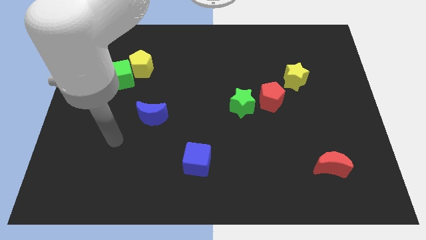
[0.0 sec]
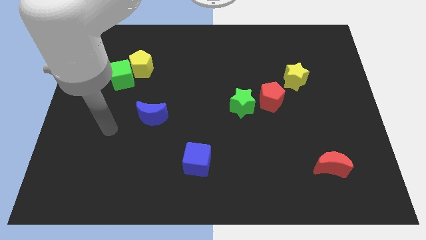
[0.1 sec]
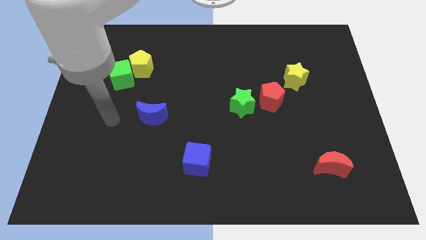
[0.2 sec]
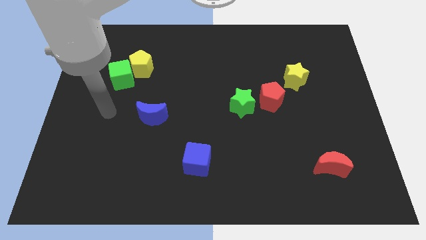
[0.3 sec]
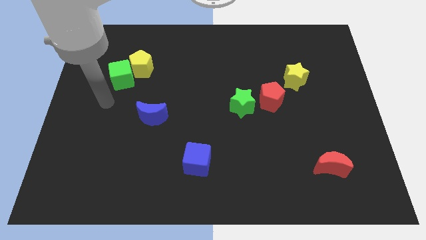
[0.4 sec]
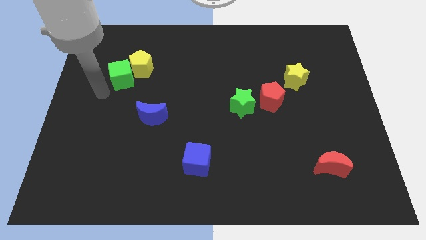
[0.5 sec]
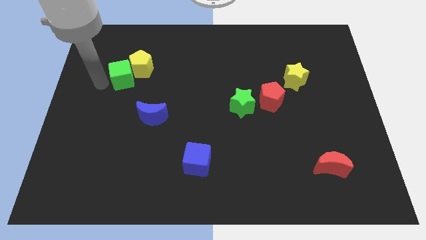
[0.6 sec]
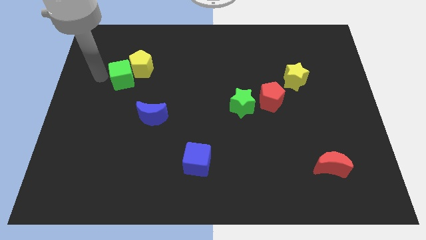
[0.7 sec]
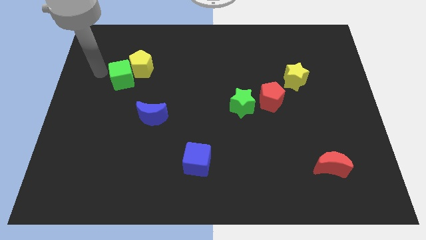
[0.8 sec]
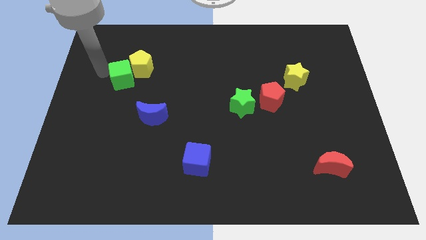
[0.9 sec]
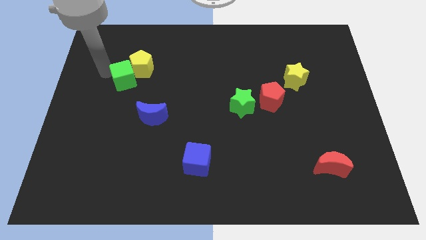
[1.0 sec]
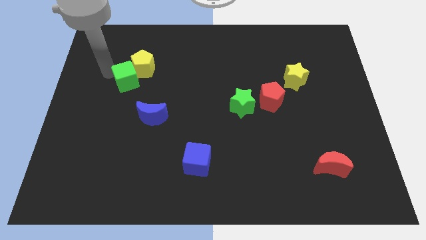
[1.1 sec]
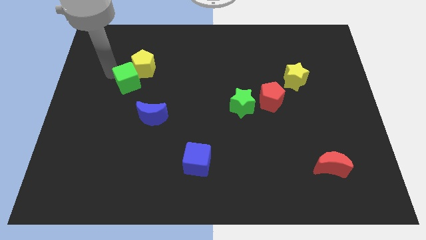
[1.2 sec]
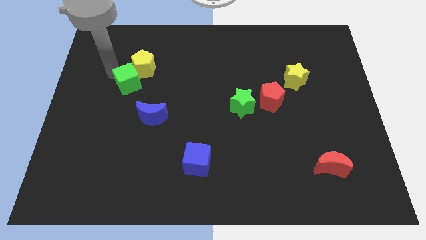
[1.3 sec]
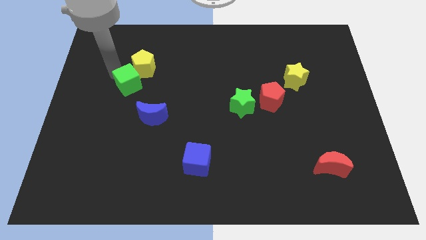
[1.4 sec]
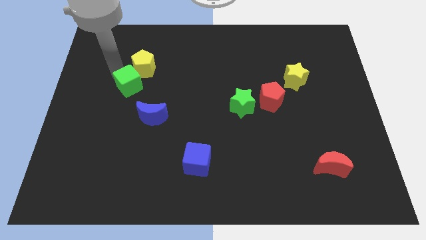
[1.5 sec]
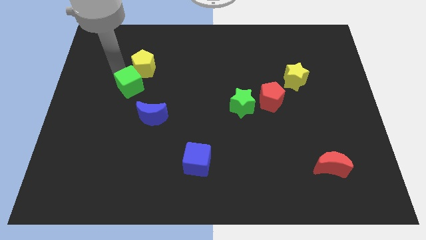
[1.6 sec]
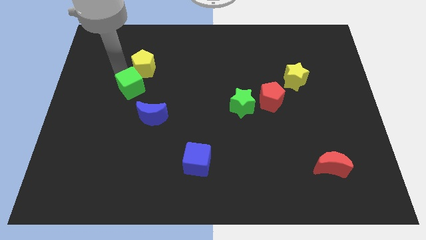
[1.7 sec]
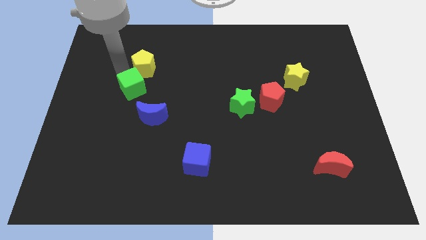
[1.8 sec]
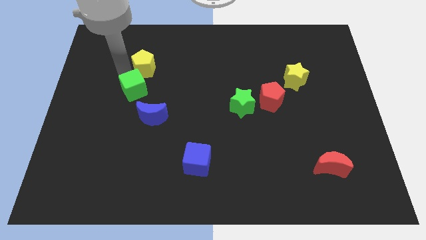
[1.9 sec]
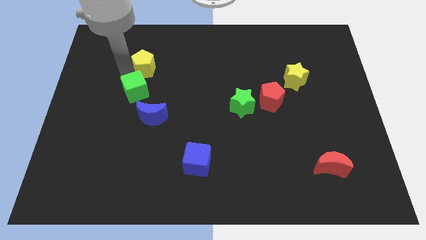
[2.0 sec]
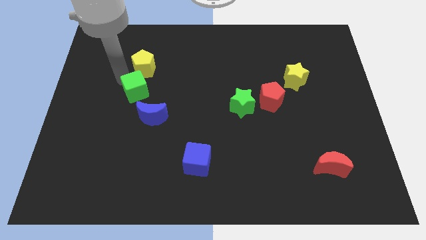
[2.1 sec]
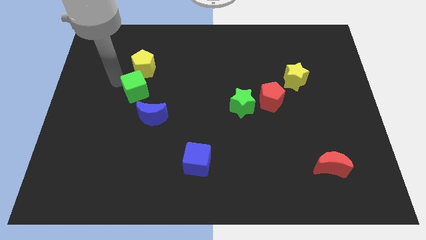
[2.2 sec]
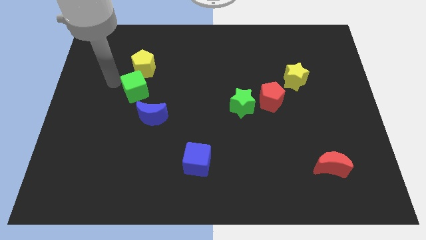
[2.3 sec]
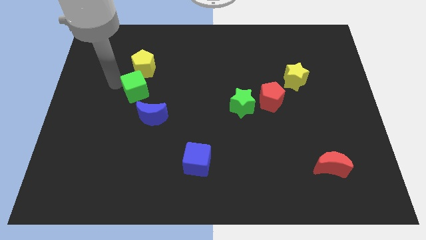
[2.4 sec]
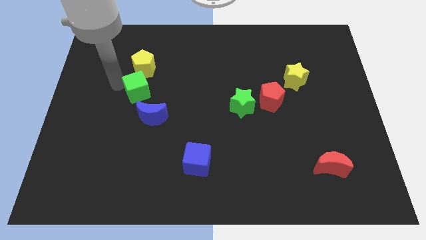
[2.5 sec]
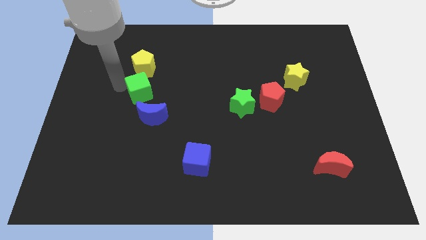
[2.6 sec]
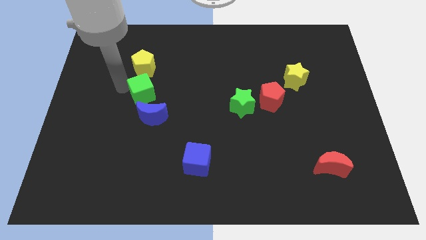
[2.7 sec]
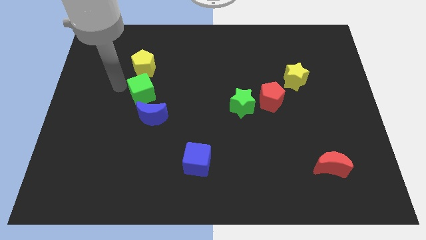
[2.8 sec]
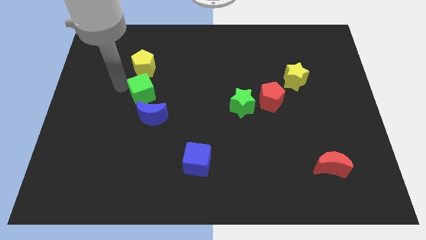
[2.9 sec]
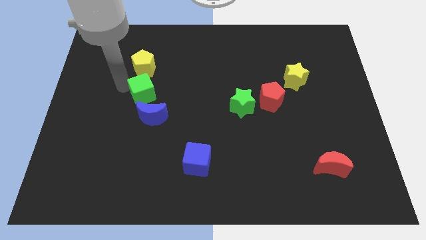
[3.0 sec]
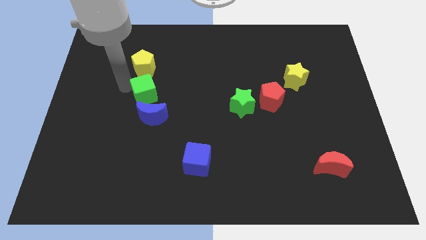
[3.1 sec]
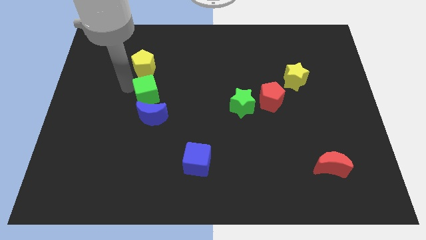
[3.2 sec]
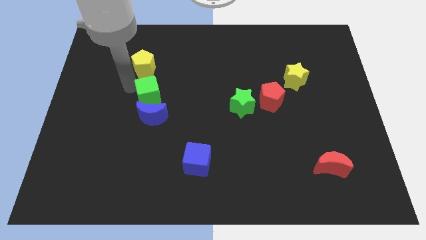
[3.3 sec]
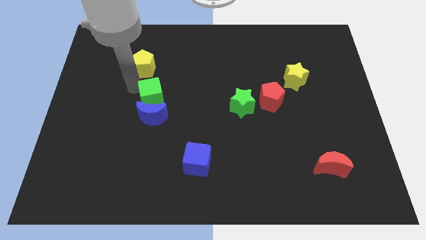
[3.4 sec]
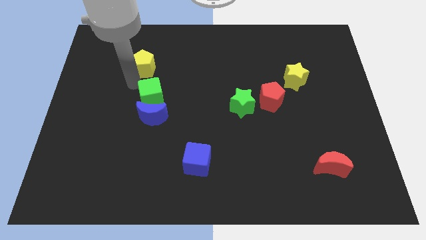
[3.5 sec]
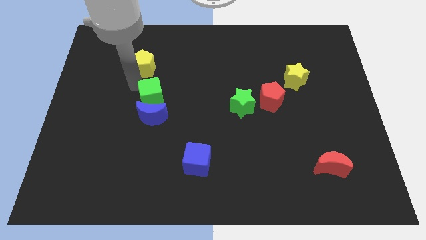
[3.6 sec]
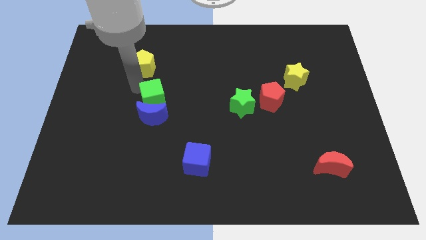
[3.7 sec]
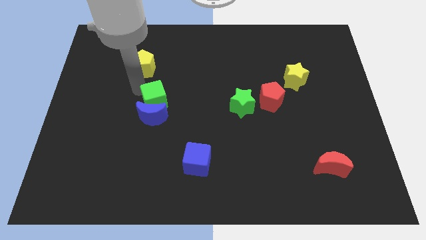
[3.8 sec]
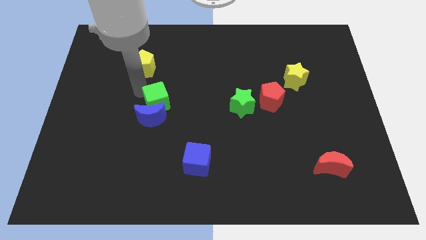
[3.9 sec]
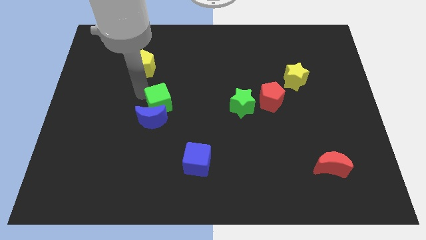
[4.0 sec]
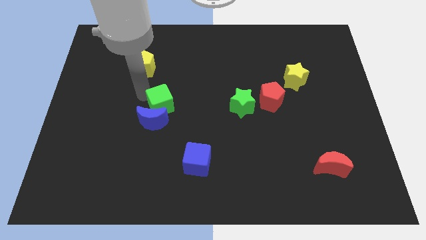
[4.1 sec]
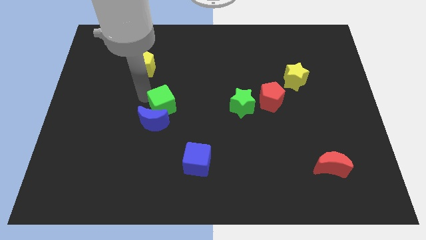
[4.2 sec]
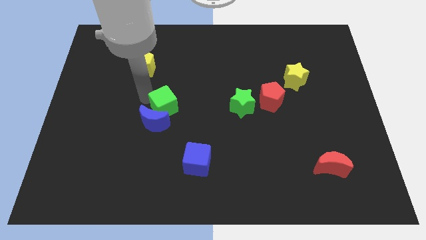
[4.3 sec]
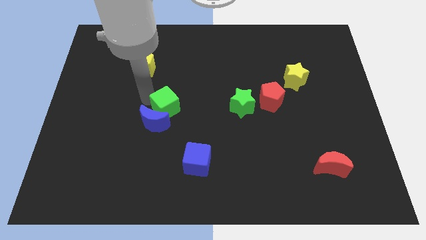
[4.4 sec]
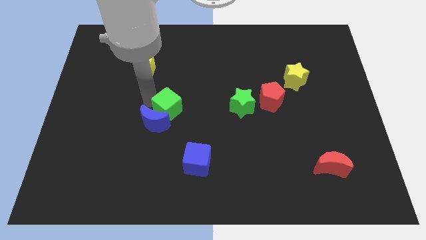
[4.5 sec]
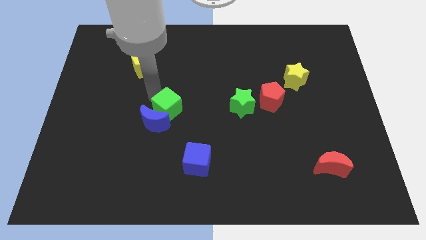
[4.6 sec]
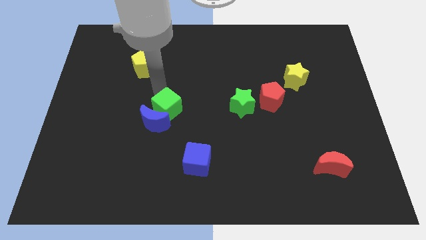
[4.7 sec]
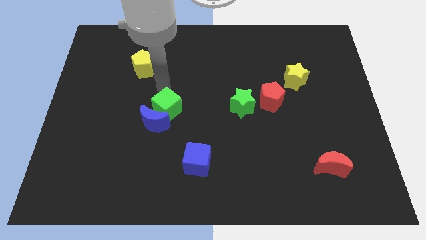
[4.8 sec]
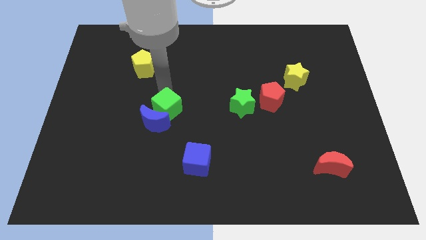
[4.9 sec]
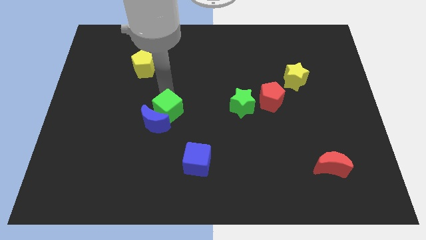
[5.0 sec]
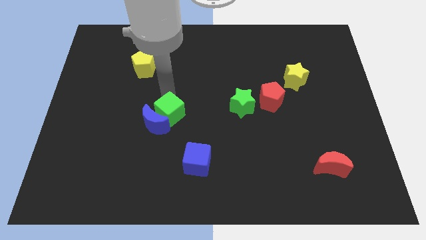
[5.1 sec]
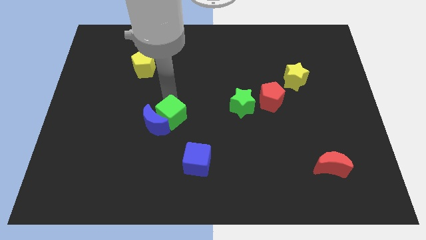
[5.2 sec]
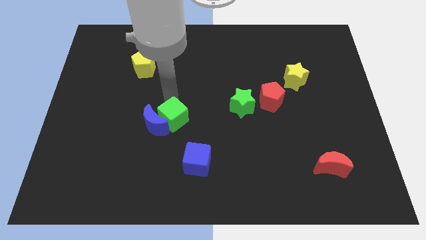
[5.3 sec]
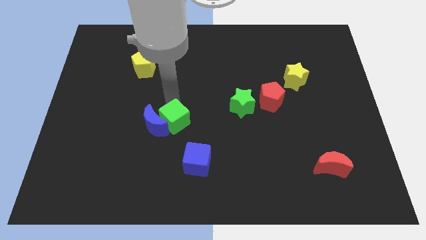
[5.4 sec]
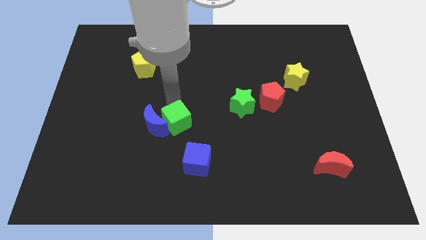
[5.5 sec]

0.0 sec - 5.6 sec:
move the green cube diagonally up and to the left of the blue cube

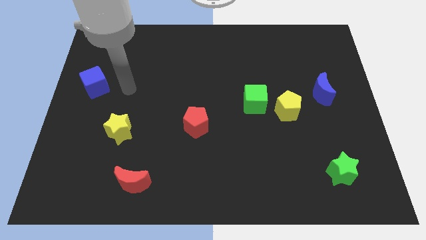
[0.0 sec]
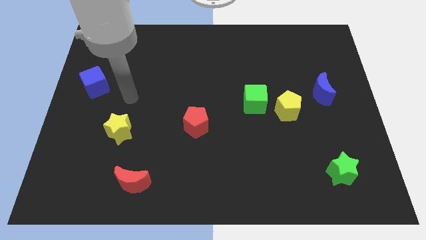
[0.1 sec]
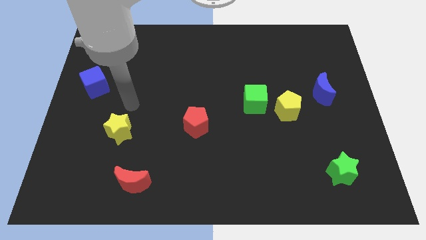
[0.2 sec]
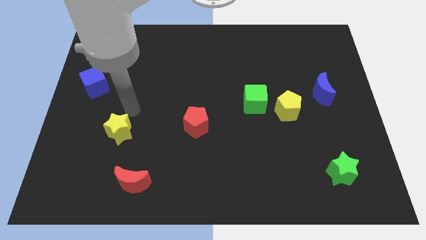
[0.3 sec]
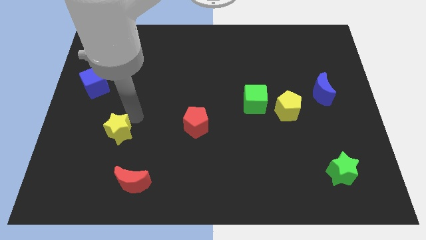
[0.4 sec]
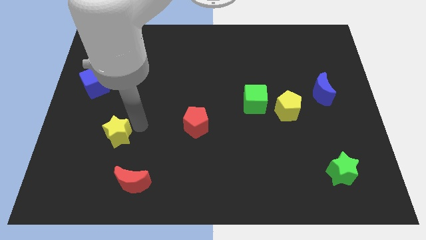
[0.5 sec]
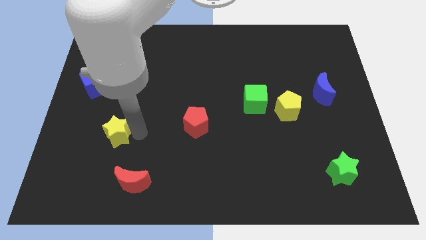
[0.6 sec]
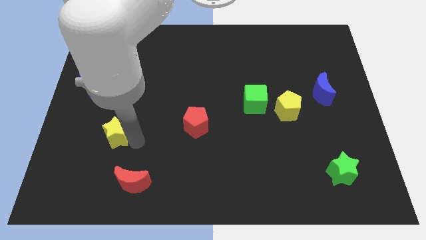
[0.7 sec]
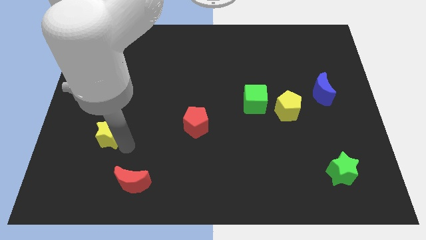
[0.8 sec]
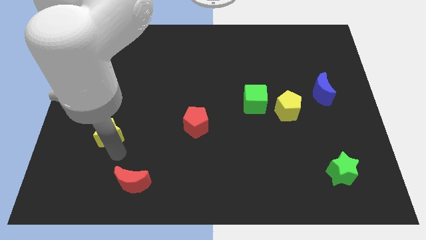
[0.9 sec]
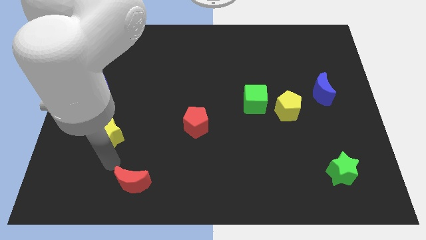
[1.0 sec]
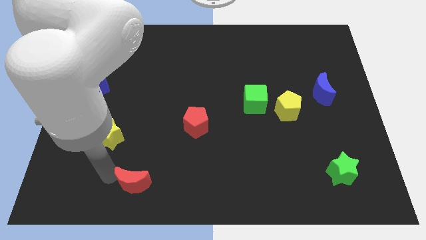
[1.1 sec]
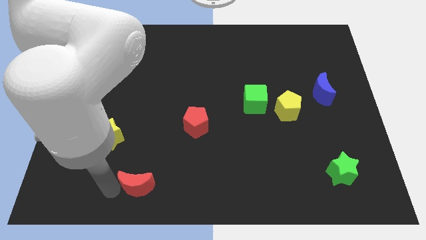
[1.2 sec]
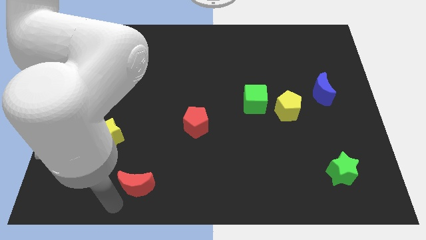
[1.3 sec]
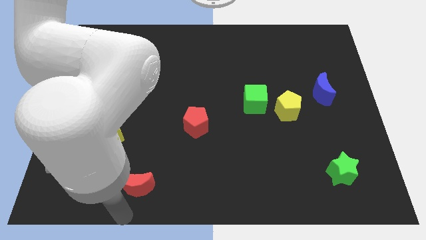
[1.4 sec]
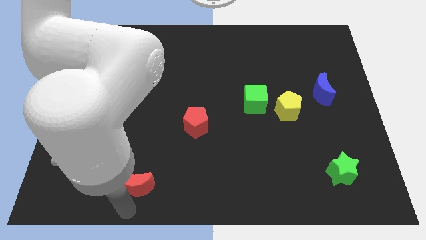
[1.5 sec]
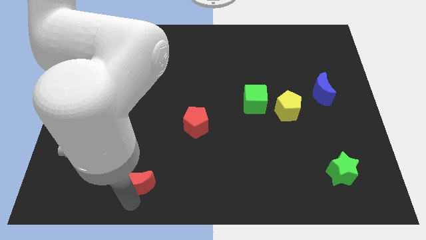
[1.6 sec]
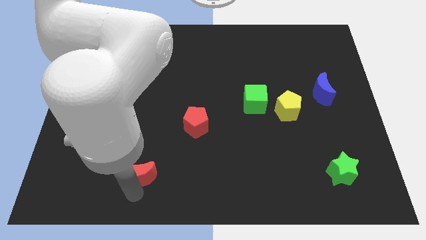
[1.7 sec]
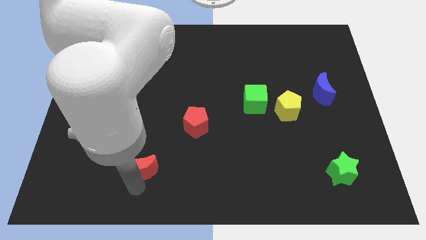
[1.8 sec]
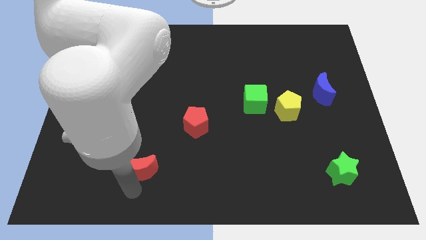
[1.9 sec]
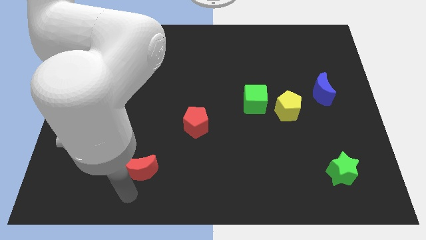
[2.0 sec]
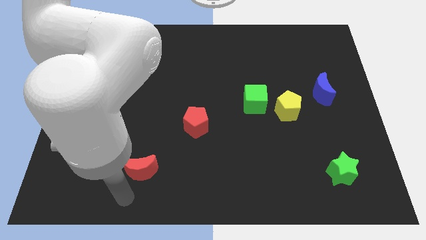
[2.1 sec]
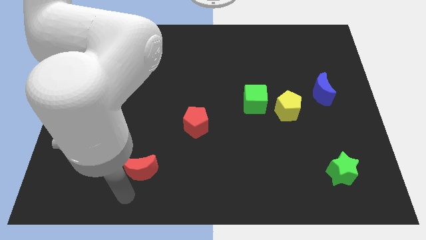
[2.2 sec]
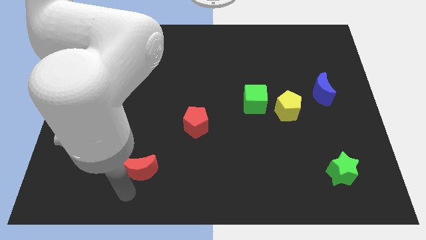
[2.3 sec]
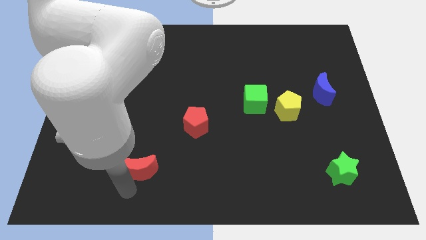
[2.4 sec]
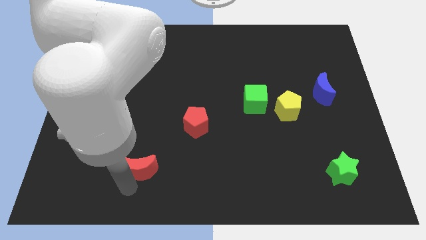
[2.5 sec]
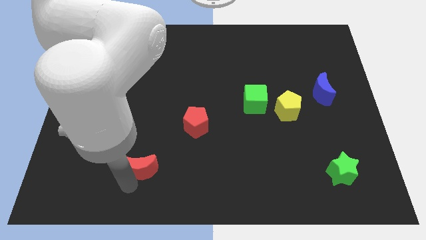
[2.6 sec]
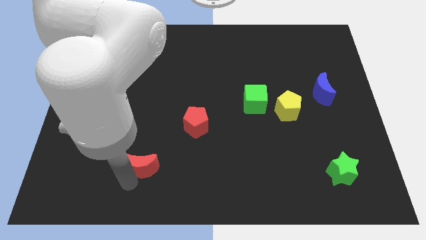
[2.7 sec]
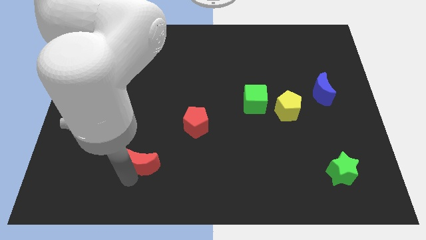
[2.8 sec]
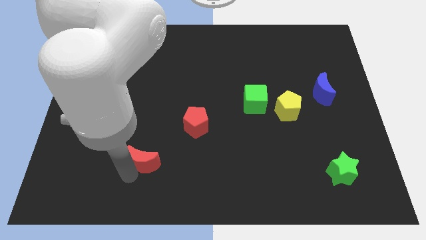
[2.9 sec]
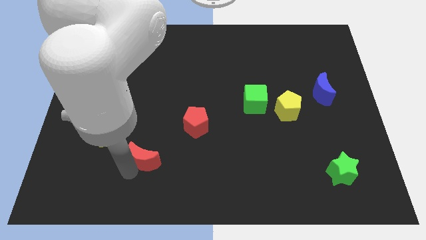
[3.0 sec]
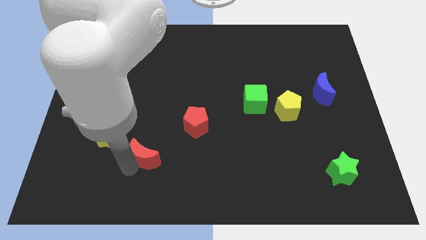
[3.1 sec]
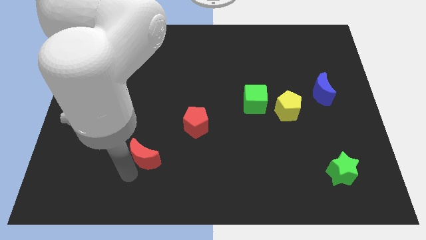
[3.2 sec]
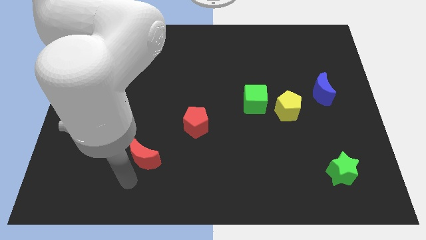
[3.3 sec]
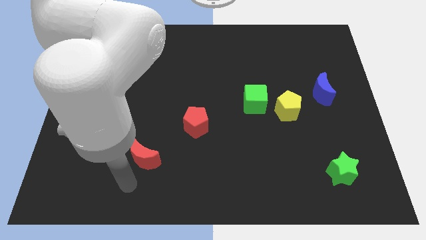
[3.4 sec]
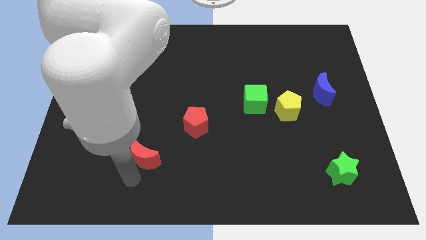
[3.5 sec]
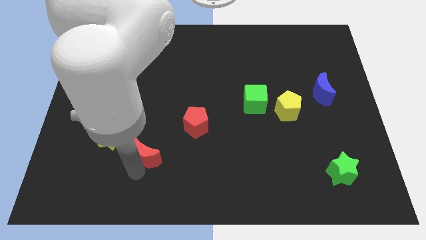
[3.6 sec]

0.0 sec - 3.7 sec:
push the red moon just right of the yellow star
